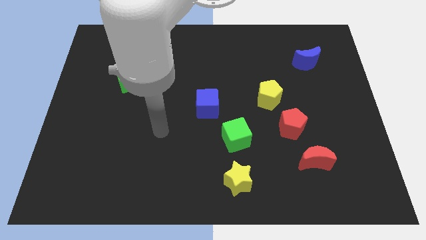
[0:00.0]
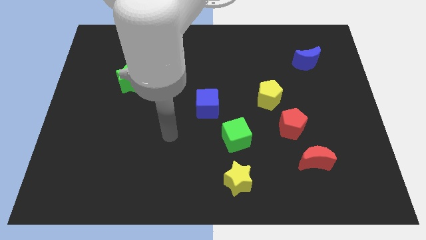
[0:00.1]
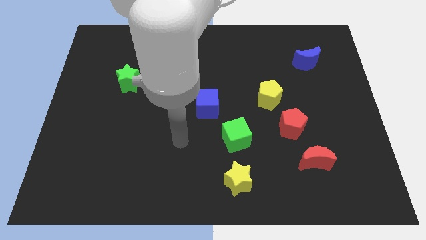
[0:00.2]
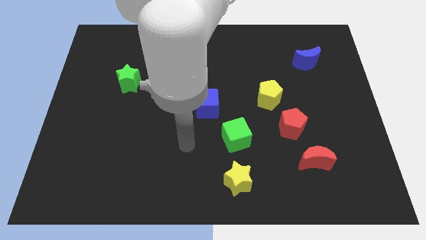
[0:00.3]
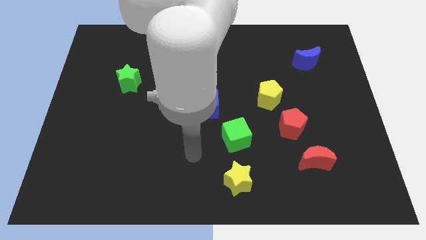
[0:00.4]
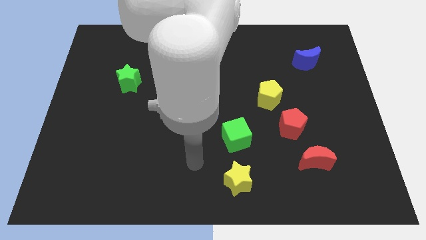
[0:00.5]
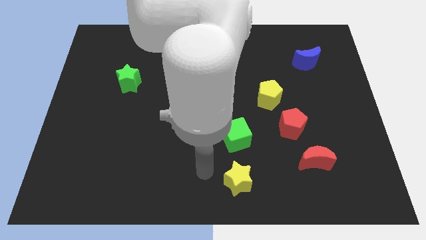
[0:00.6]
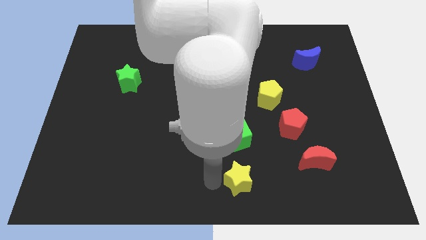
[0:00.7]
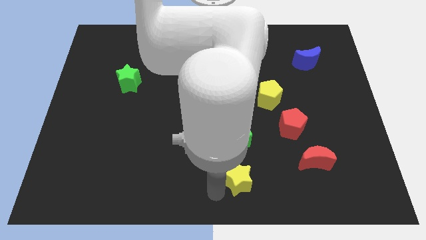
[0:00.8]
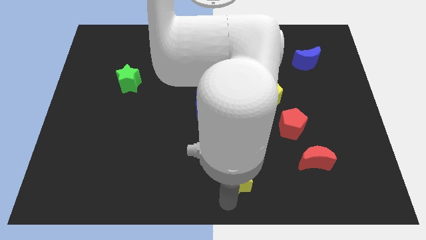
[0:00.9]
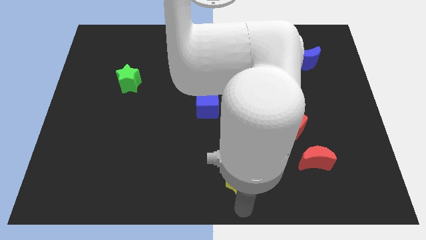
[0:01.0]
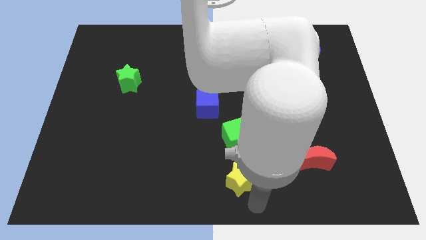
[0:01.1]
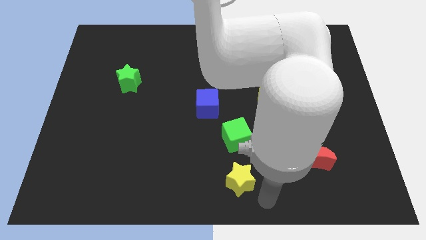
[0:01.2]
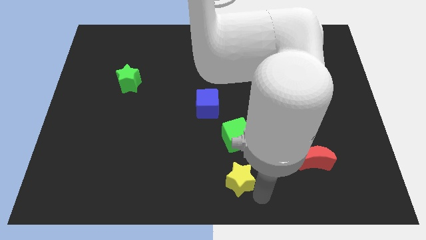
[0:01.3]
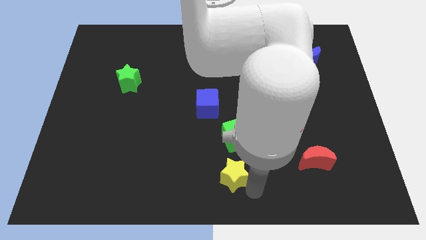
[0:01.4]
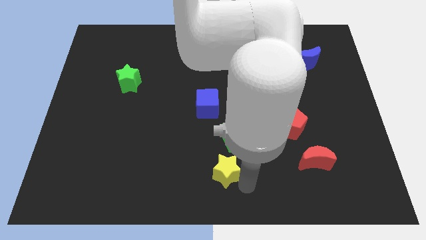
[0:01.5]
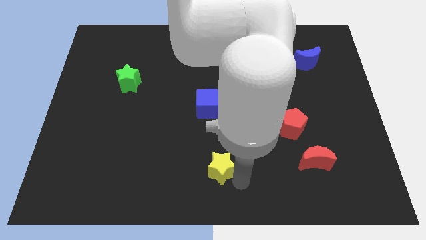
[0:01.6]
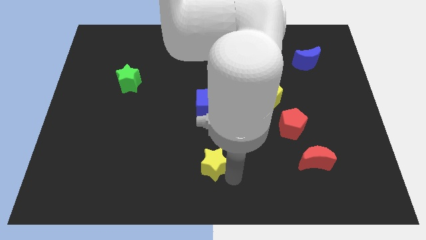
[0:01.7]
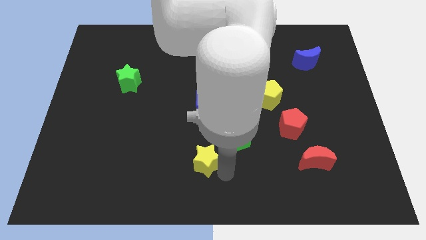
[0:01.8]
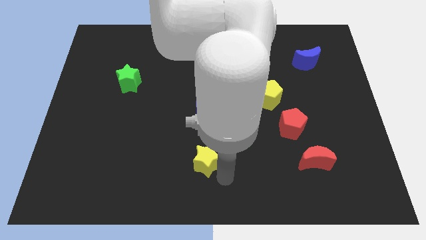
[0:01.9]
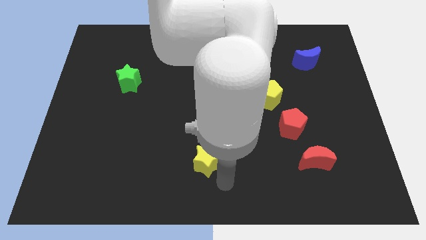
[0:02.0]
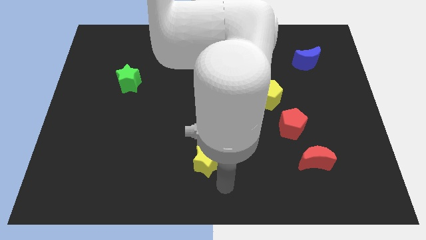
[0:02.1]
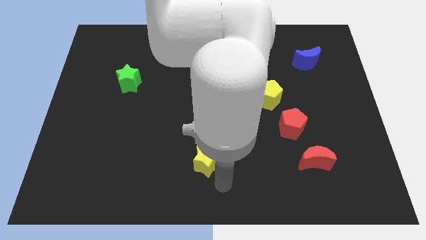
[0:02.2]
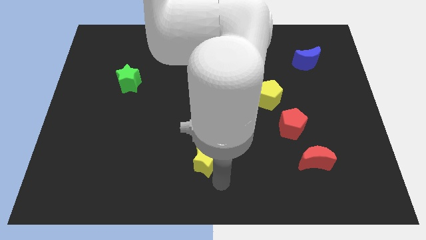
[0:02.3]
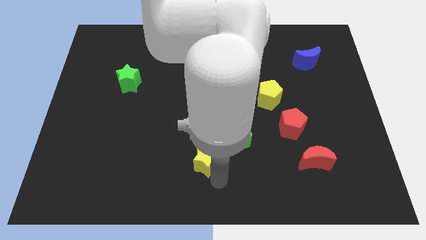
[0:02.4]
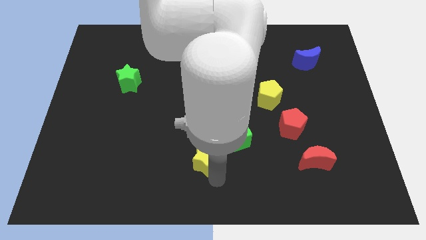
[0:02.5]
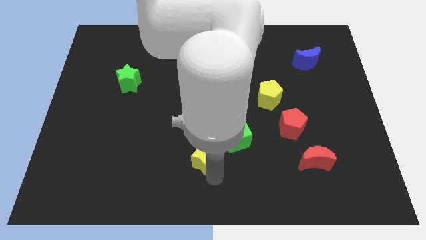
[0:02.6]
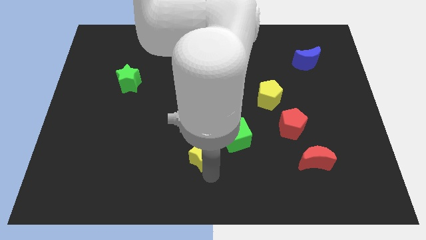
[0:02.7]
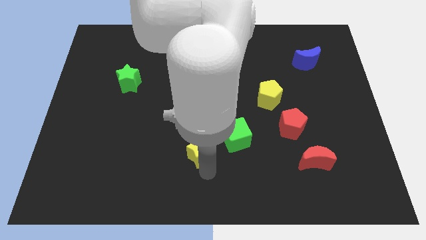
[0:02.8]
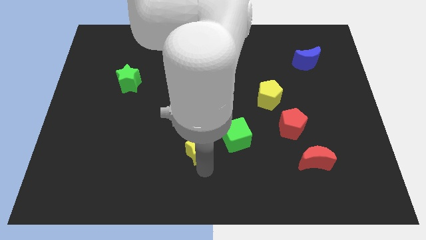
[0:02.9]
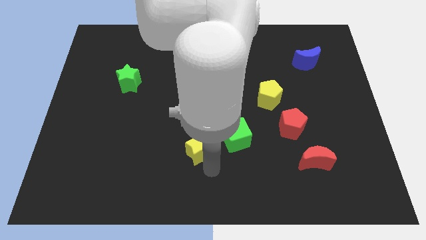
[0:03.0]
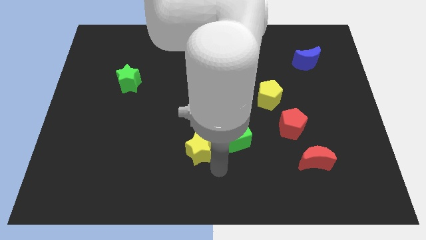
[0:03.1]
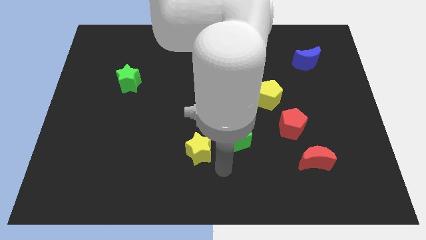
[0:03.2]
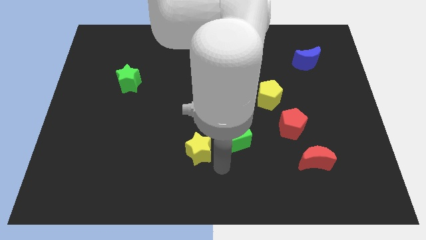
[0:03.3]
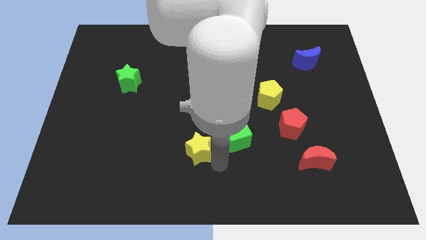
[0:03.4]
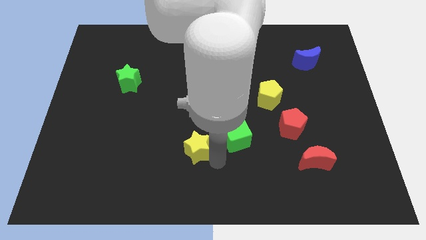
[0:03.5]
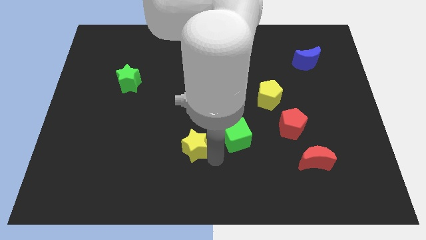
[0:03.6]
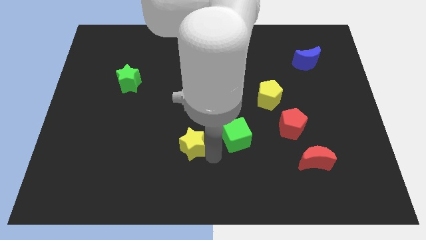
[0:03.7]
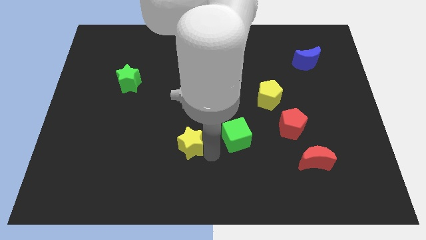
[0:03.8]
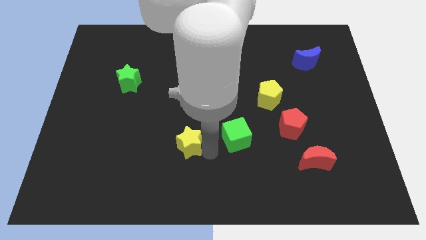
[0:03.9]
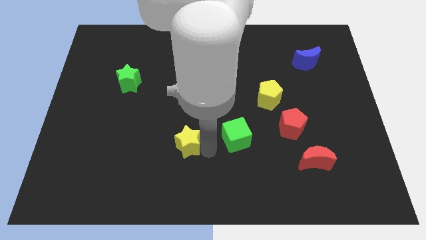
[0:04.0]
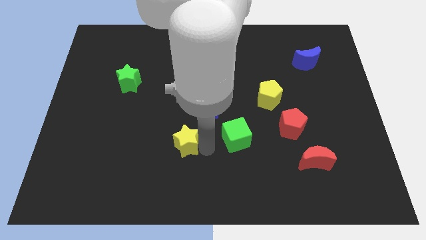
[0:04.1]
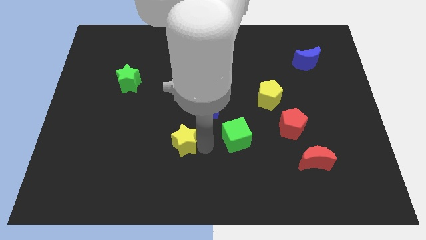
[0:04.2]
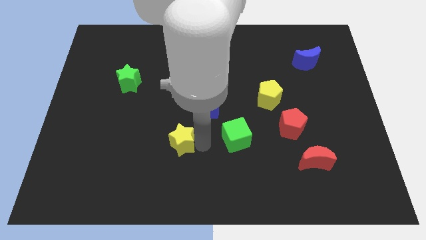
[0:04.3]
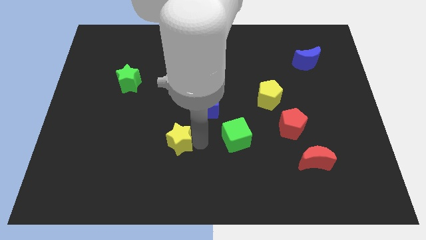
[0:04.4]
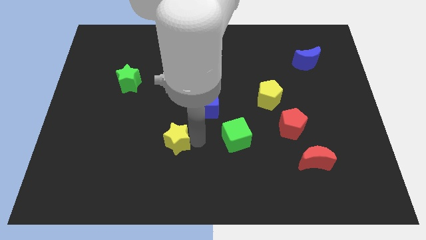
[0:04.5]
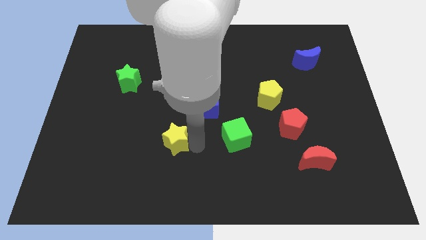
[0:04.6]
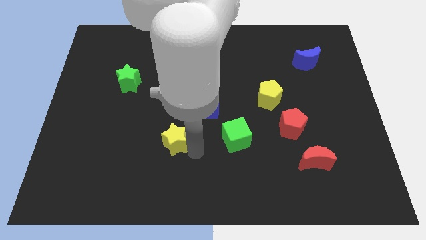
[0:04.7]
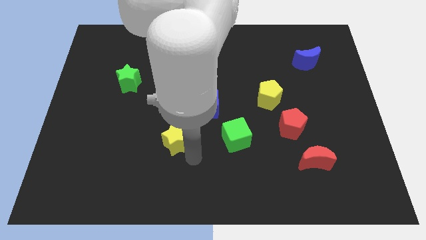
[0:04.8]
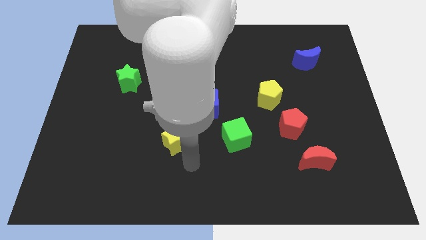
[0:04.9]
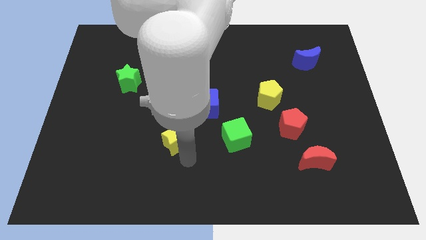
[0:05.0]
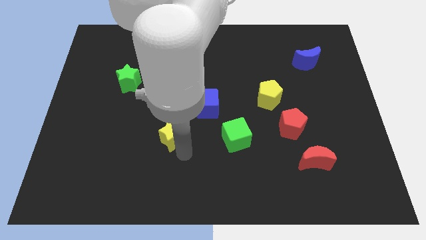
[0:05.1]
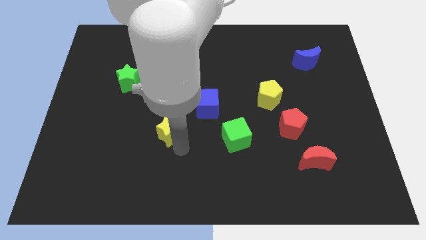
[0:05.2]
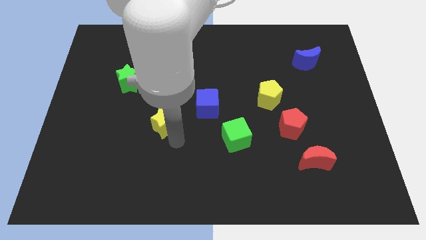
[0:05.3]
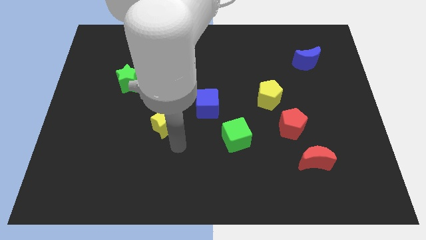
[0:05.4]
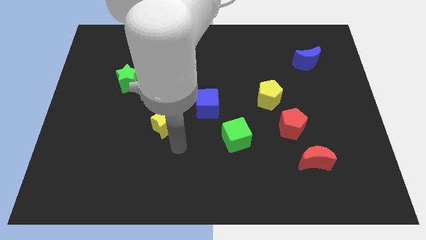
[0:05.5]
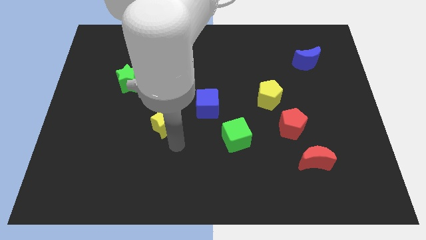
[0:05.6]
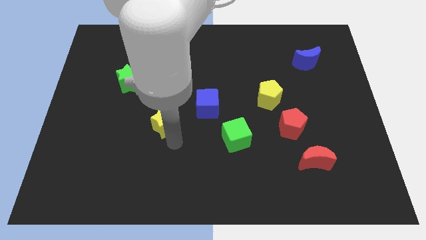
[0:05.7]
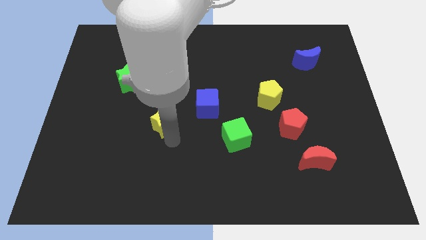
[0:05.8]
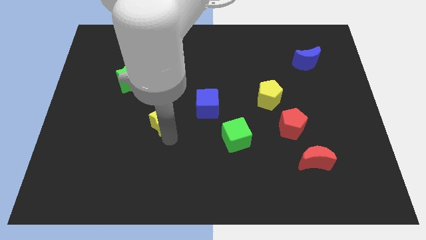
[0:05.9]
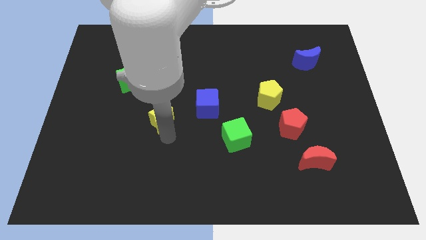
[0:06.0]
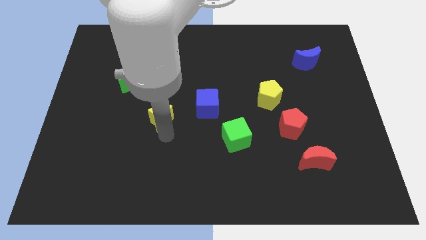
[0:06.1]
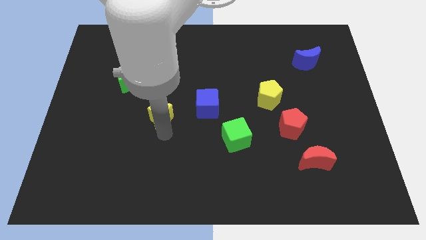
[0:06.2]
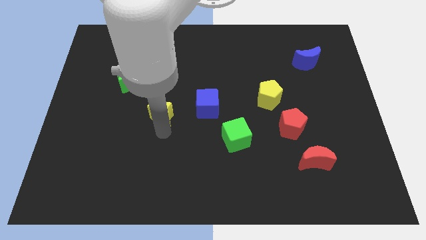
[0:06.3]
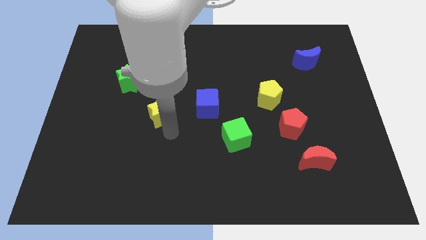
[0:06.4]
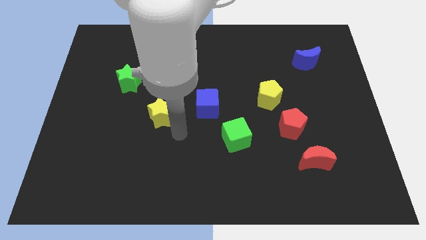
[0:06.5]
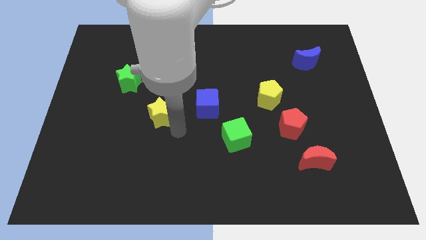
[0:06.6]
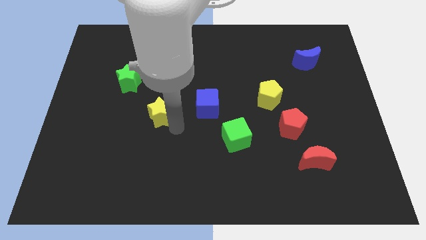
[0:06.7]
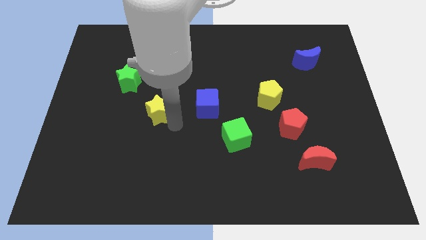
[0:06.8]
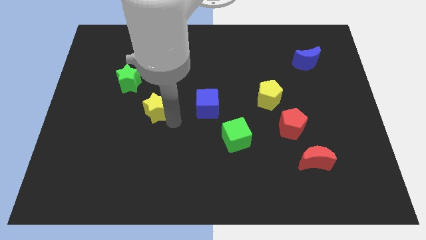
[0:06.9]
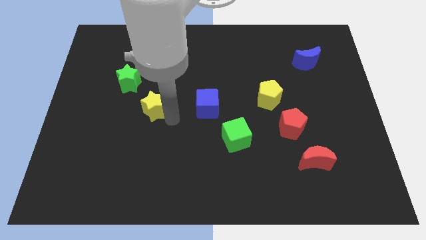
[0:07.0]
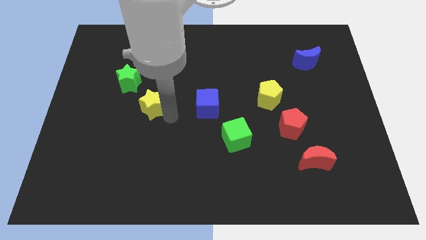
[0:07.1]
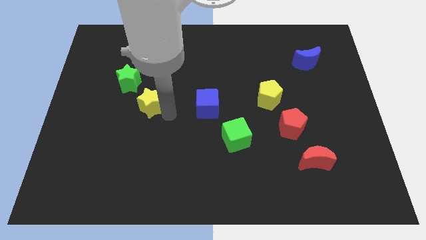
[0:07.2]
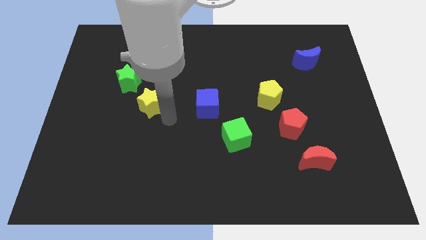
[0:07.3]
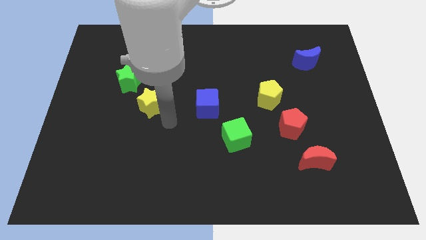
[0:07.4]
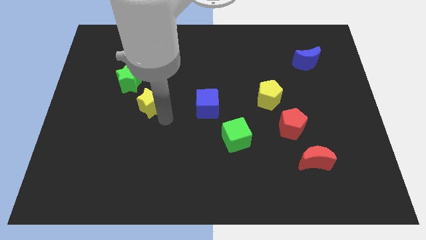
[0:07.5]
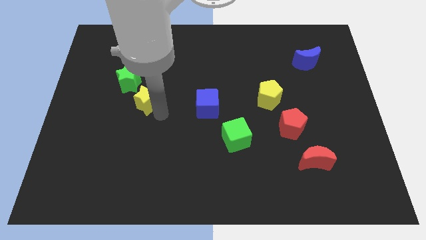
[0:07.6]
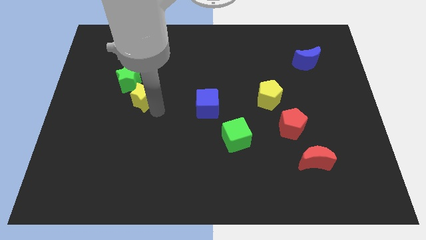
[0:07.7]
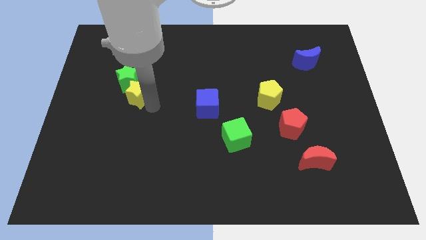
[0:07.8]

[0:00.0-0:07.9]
put the yellow star towards the green star
